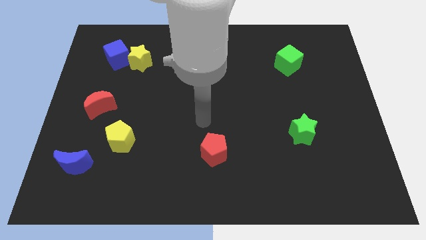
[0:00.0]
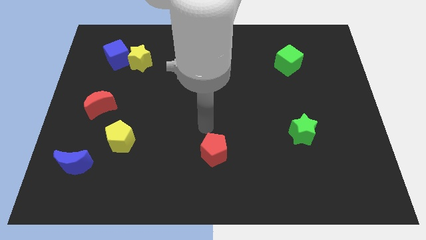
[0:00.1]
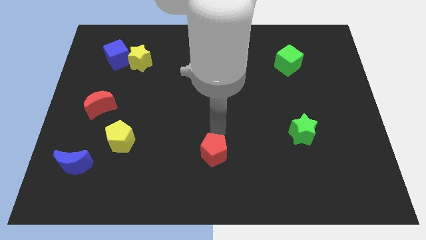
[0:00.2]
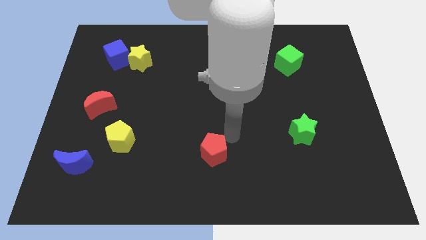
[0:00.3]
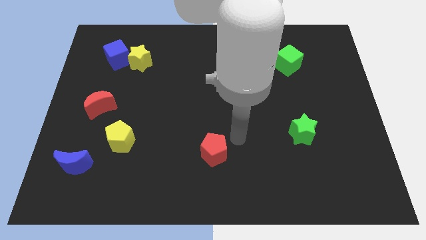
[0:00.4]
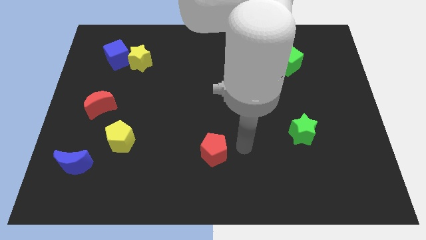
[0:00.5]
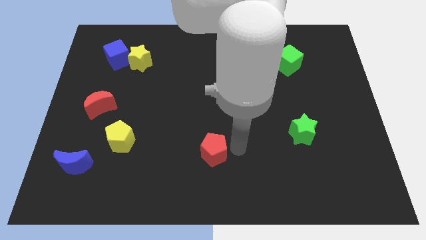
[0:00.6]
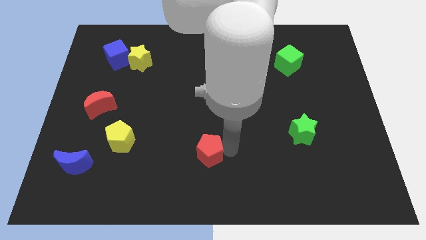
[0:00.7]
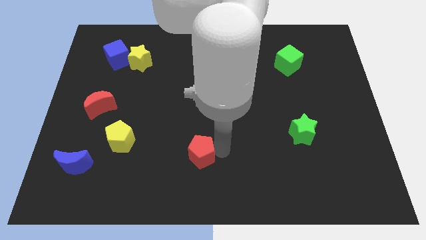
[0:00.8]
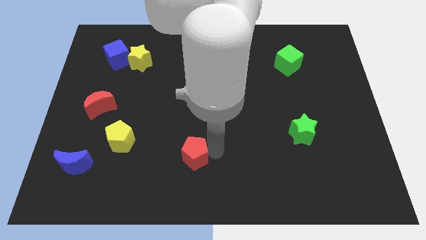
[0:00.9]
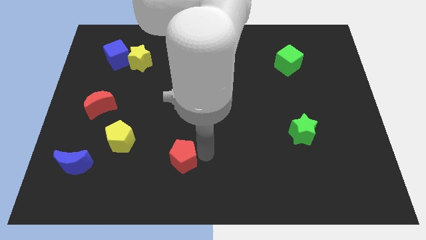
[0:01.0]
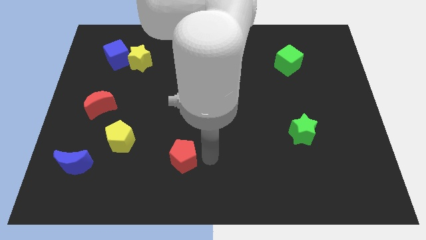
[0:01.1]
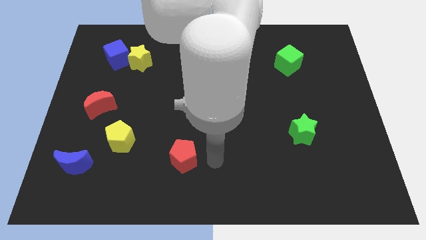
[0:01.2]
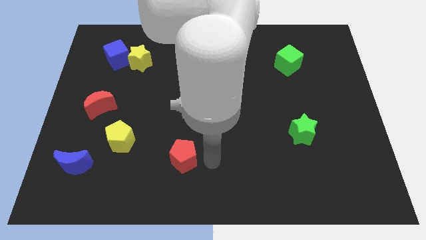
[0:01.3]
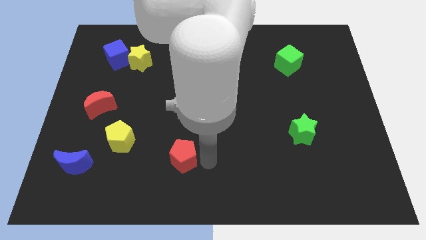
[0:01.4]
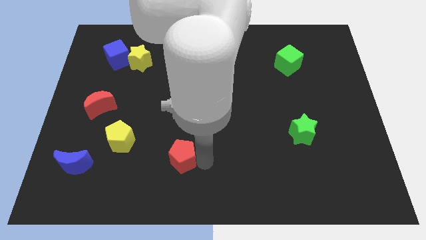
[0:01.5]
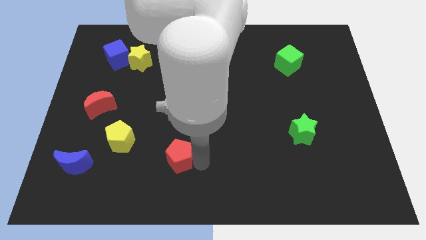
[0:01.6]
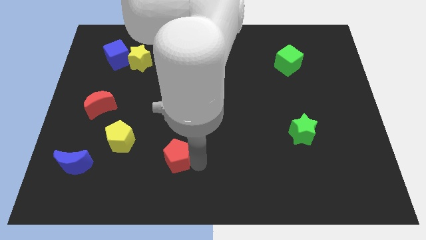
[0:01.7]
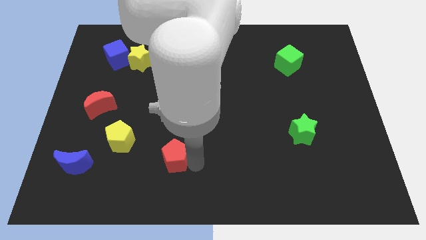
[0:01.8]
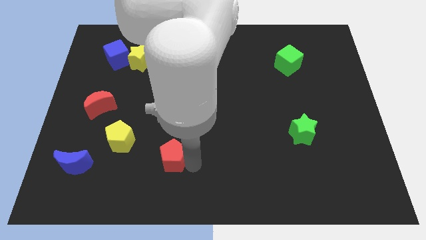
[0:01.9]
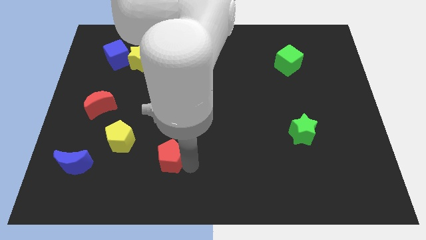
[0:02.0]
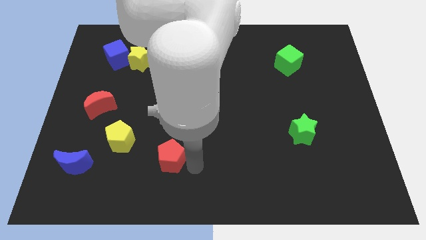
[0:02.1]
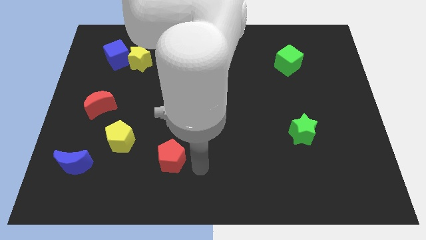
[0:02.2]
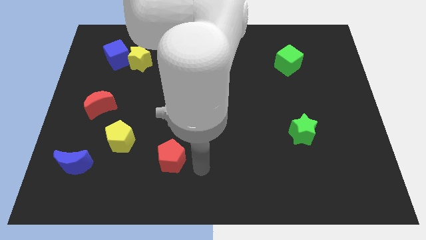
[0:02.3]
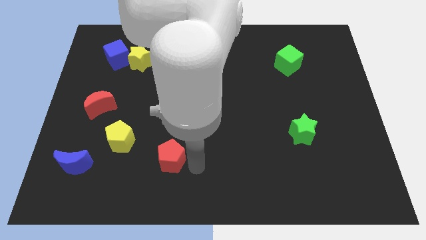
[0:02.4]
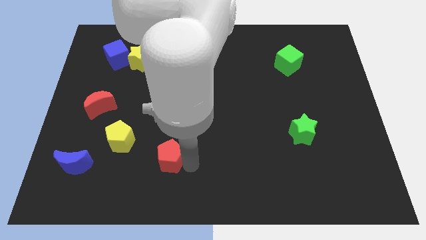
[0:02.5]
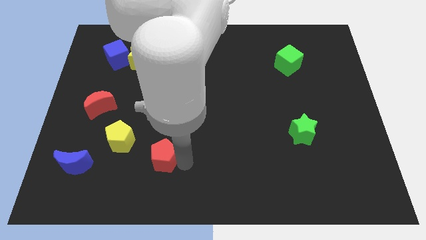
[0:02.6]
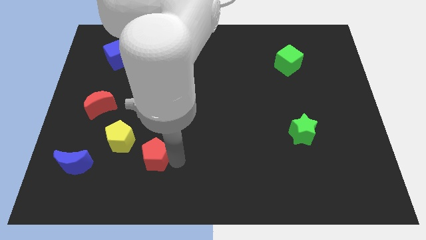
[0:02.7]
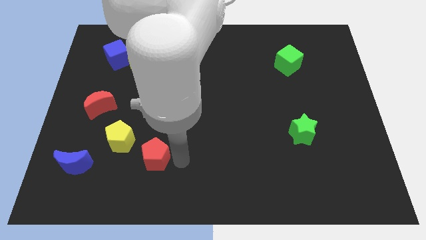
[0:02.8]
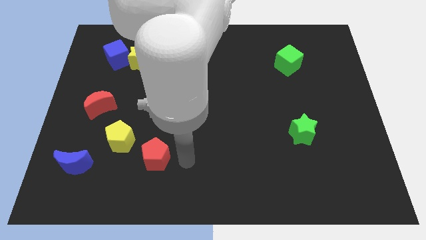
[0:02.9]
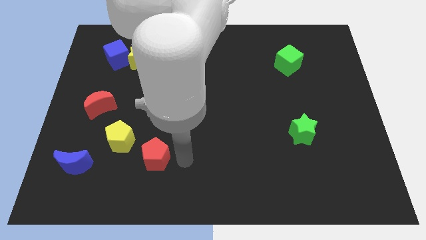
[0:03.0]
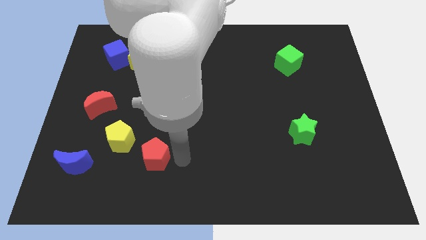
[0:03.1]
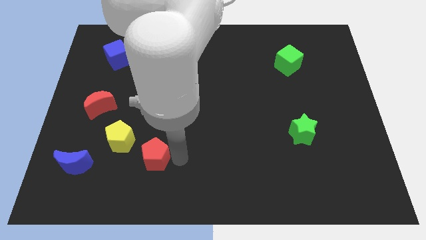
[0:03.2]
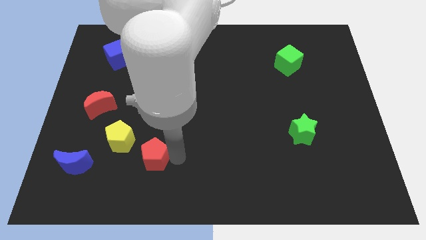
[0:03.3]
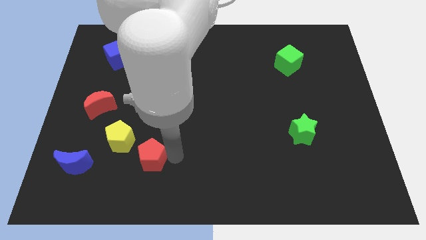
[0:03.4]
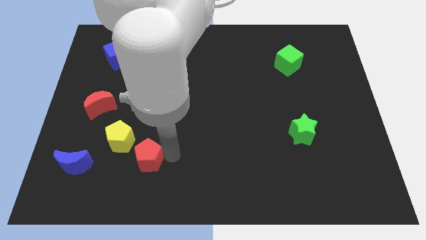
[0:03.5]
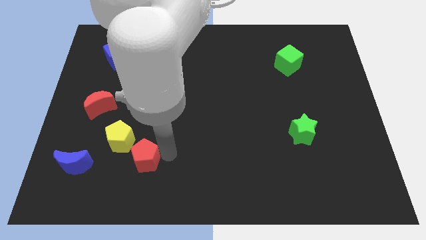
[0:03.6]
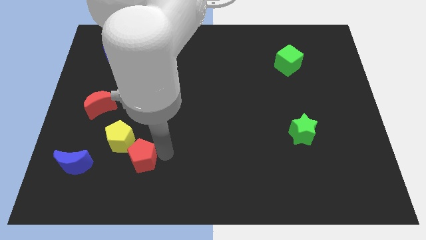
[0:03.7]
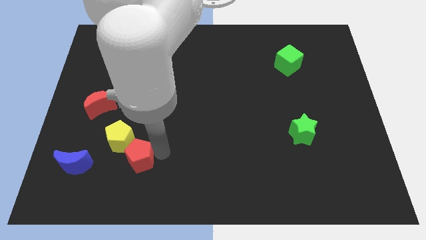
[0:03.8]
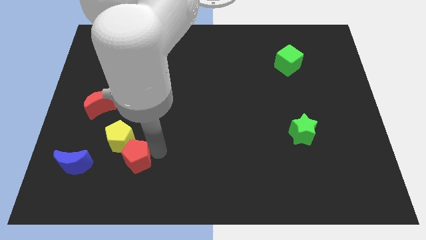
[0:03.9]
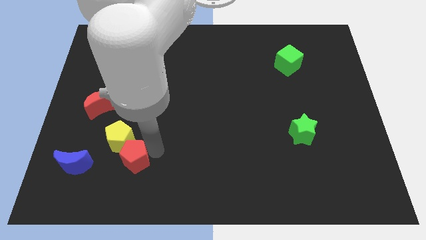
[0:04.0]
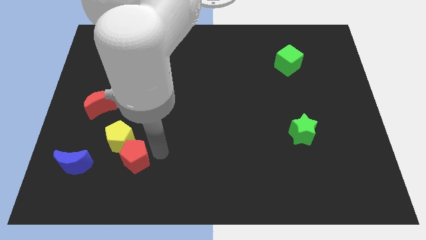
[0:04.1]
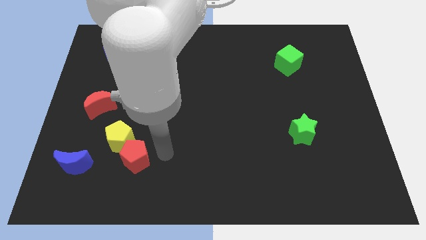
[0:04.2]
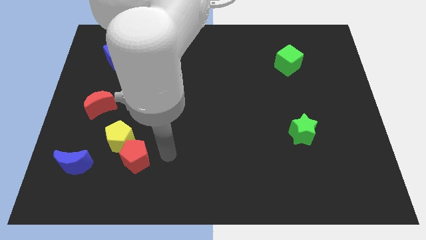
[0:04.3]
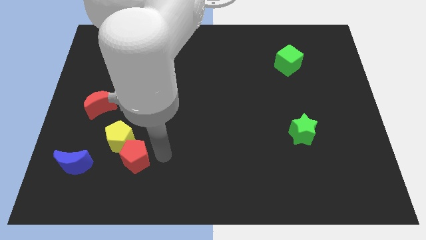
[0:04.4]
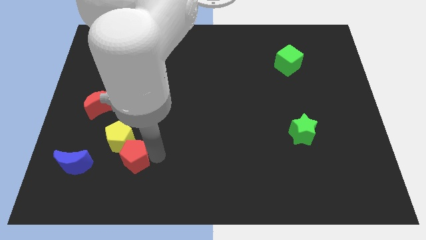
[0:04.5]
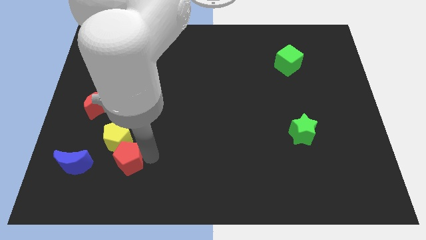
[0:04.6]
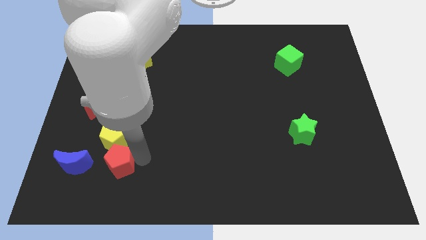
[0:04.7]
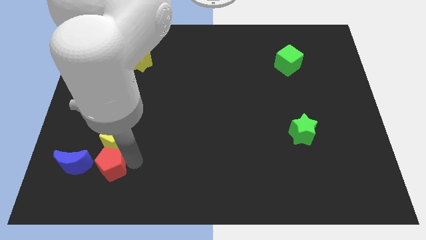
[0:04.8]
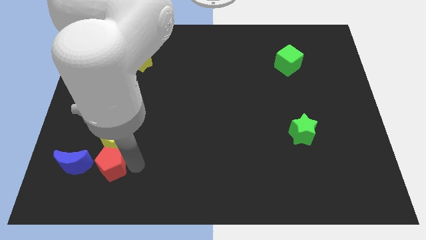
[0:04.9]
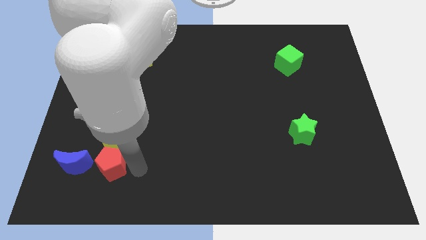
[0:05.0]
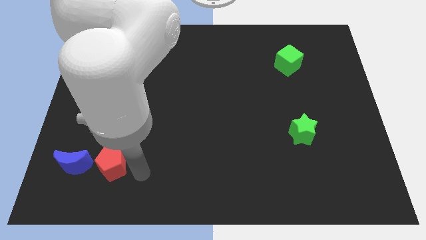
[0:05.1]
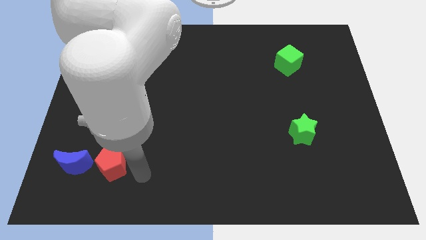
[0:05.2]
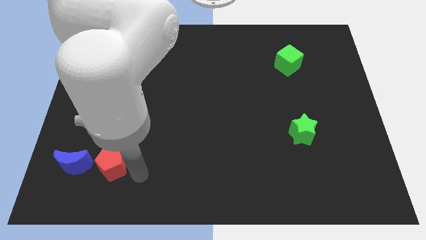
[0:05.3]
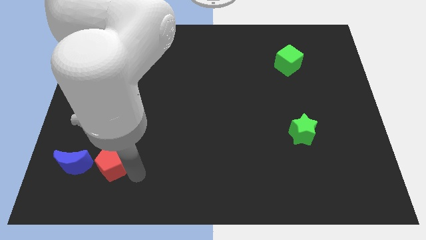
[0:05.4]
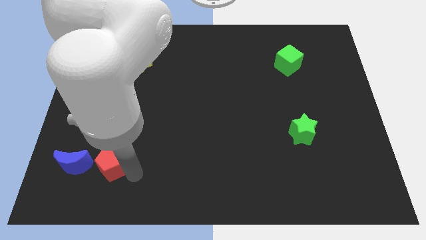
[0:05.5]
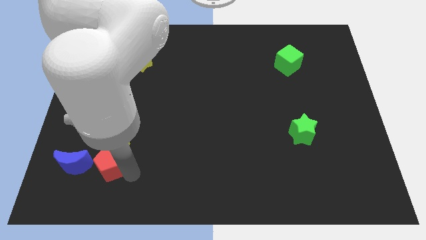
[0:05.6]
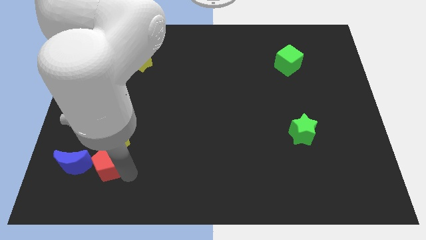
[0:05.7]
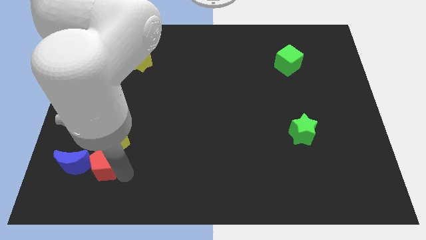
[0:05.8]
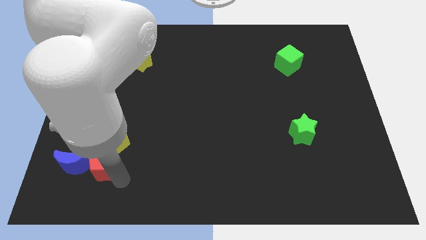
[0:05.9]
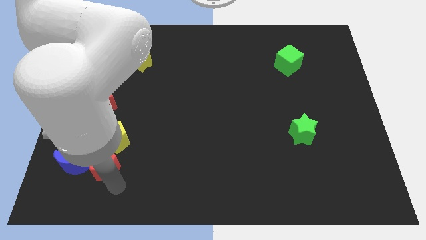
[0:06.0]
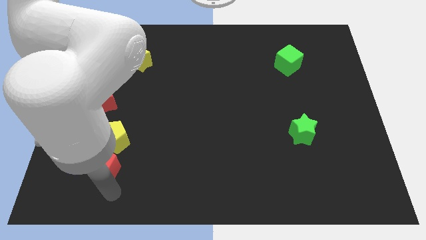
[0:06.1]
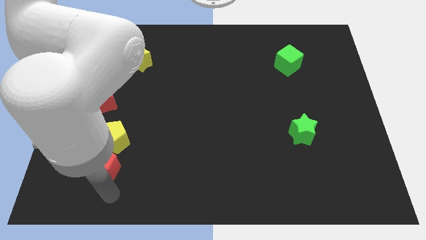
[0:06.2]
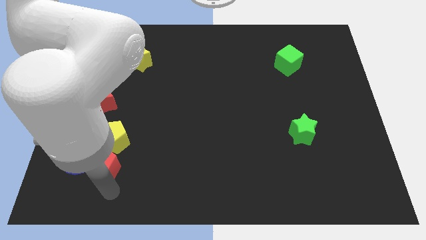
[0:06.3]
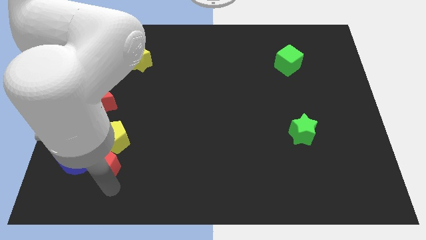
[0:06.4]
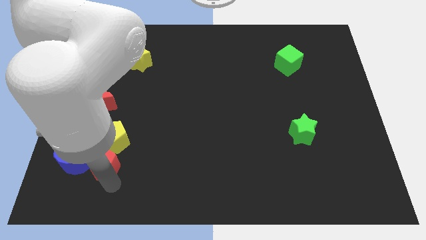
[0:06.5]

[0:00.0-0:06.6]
put the red pentagon to the top right of the blue moon

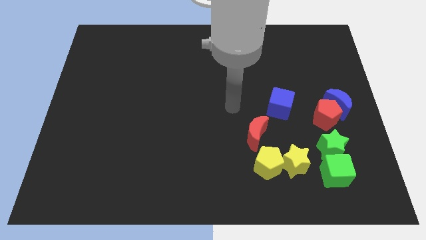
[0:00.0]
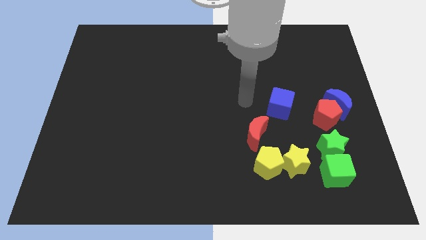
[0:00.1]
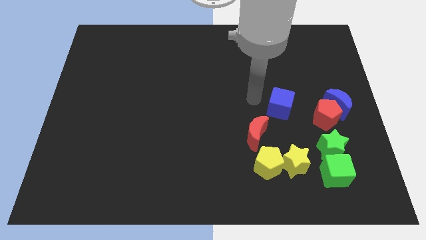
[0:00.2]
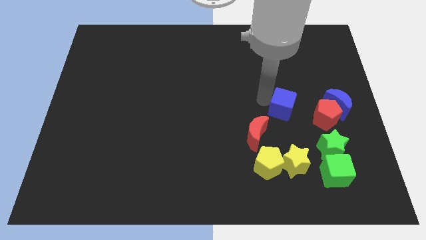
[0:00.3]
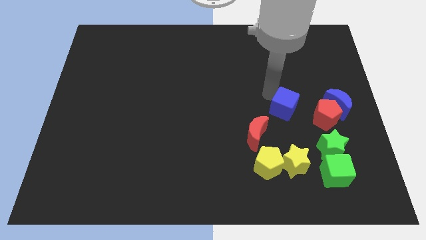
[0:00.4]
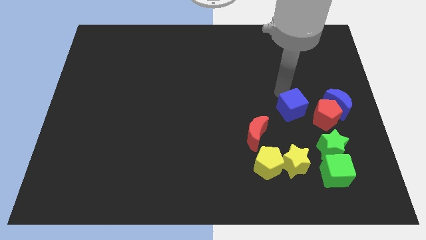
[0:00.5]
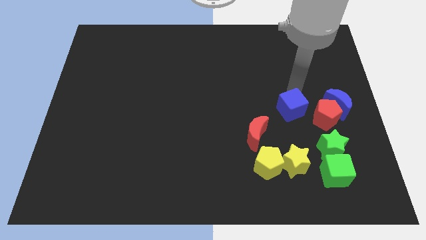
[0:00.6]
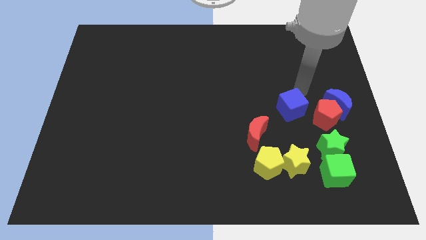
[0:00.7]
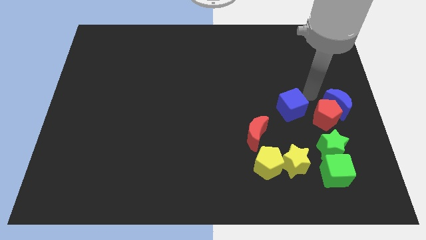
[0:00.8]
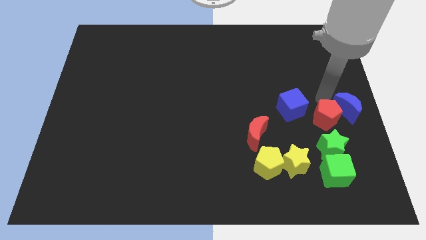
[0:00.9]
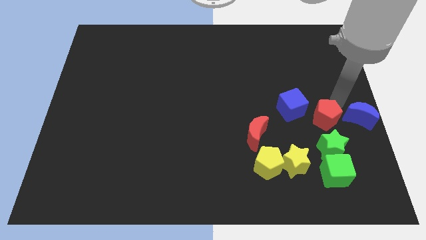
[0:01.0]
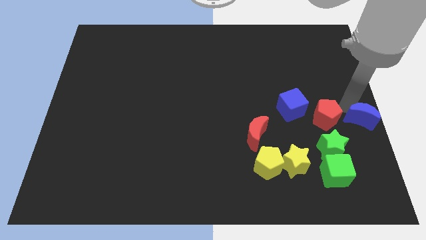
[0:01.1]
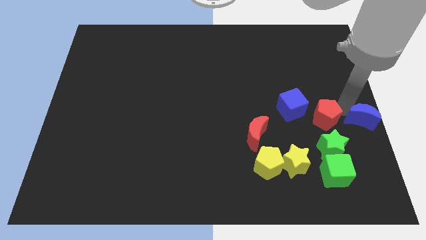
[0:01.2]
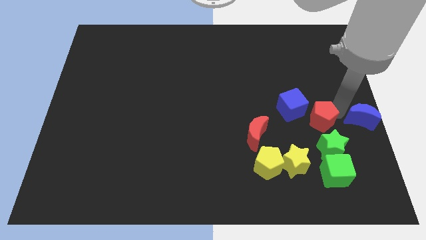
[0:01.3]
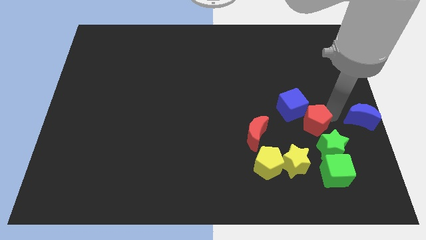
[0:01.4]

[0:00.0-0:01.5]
slide the red pentagon to the top left side of the green star
